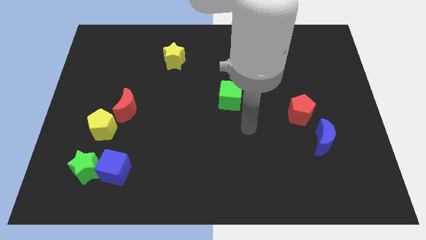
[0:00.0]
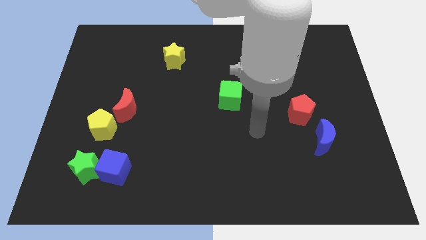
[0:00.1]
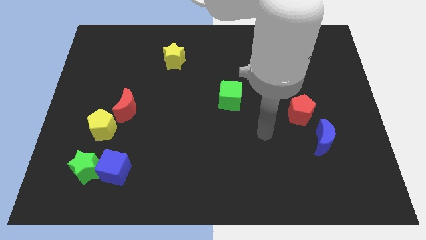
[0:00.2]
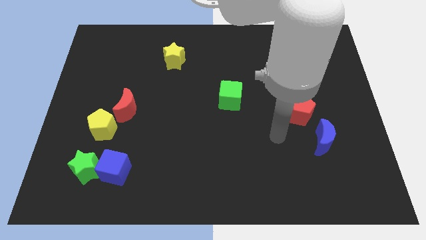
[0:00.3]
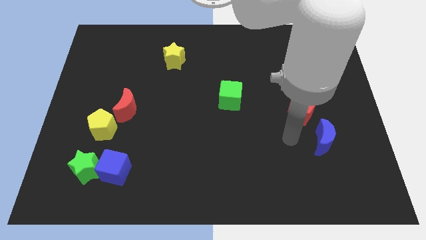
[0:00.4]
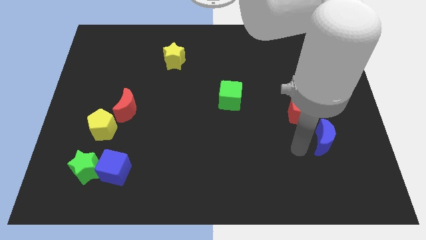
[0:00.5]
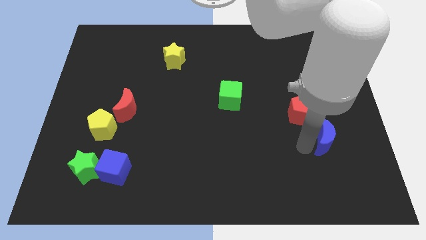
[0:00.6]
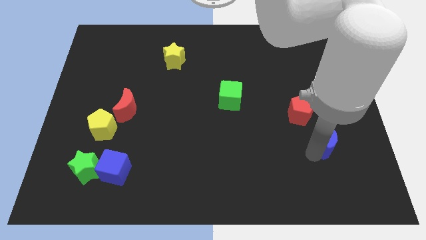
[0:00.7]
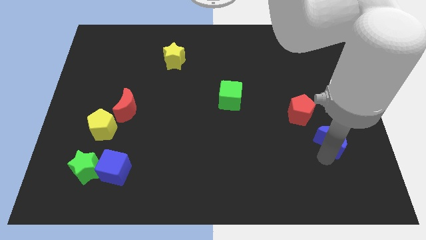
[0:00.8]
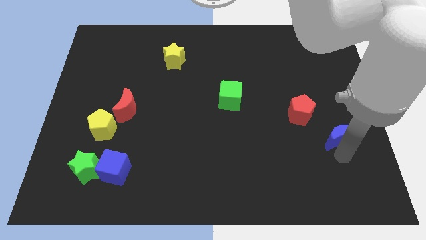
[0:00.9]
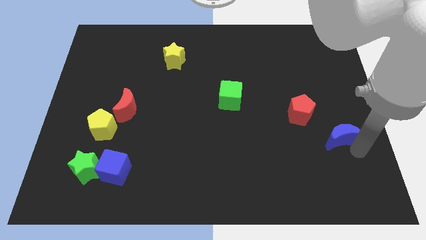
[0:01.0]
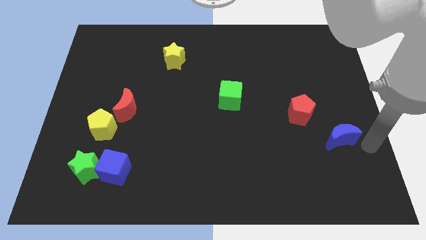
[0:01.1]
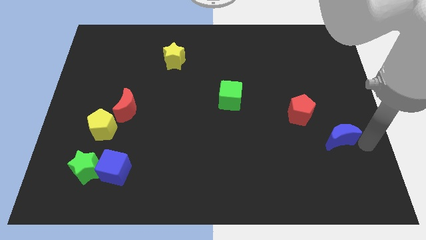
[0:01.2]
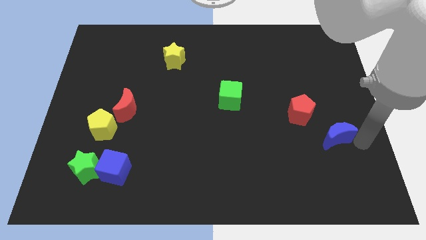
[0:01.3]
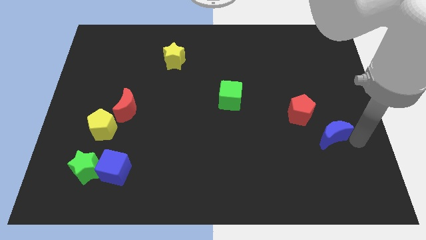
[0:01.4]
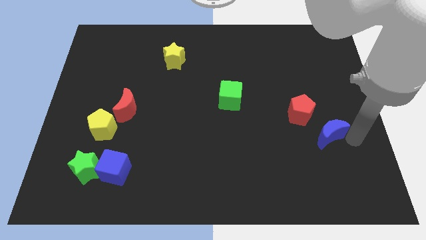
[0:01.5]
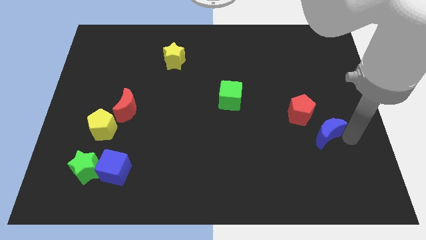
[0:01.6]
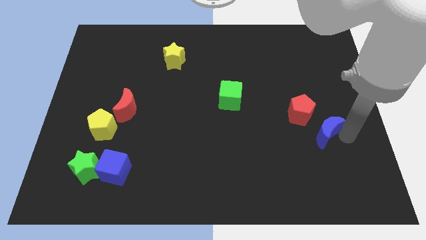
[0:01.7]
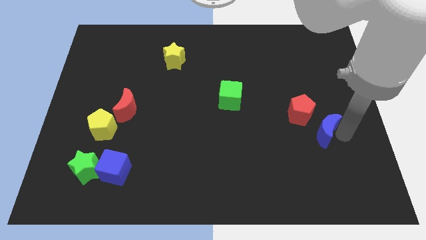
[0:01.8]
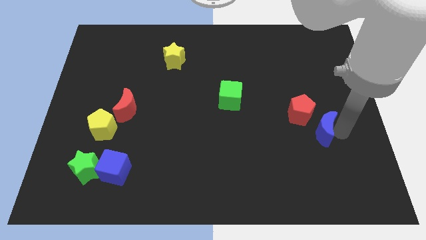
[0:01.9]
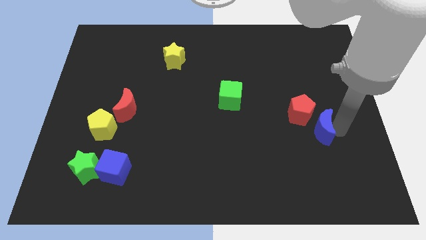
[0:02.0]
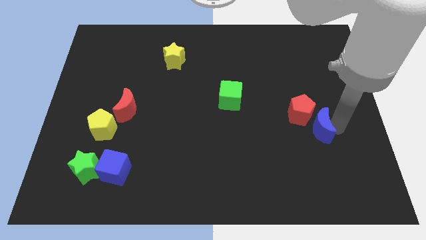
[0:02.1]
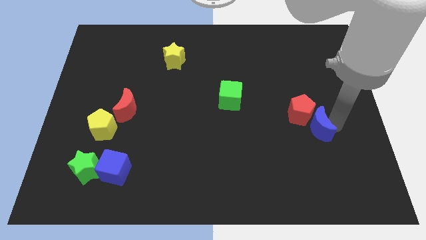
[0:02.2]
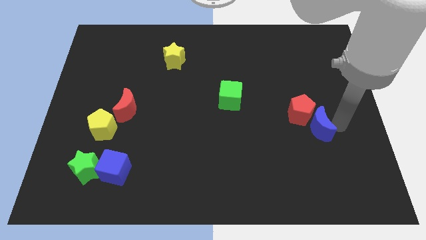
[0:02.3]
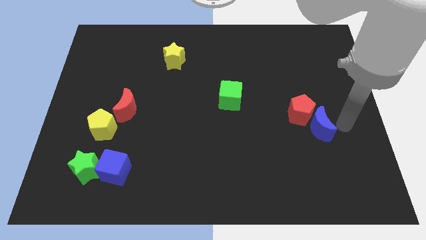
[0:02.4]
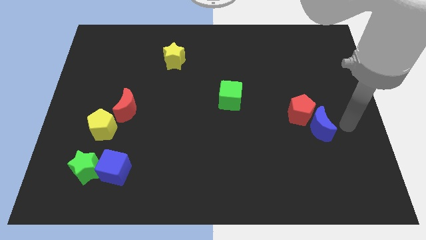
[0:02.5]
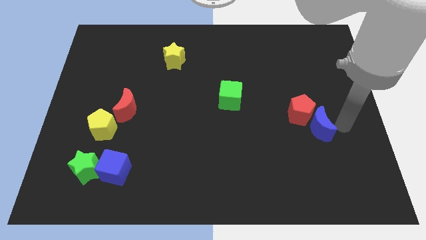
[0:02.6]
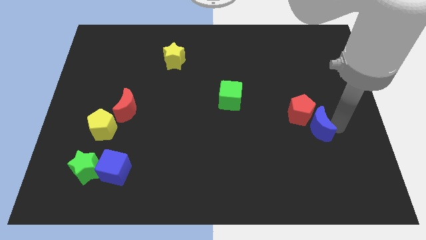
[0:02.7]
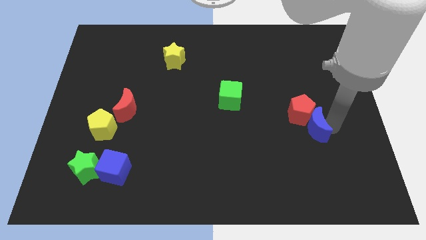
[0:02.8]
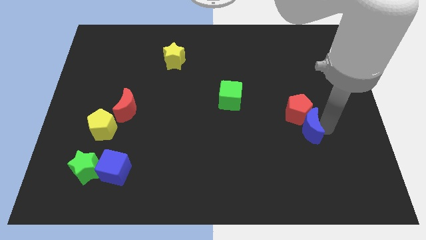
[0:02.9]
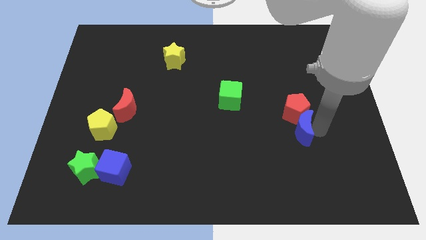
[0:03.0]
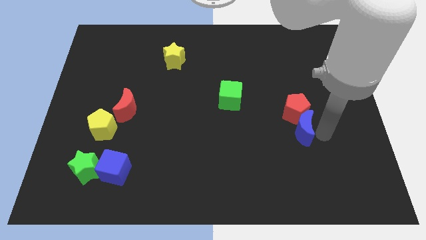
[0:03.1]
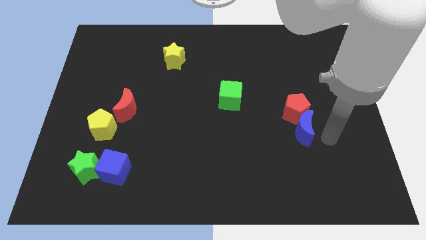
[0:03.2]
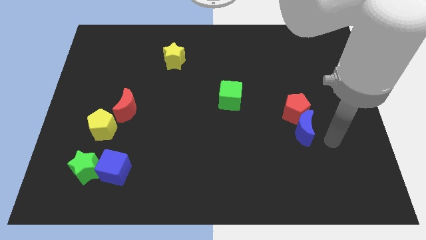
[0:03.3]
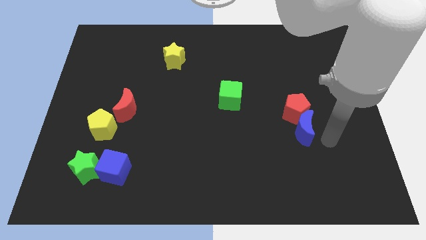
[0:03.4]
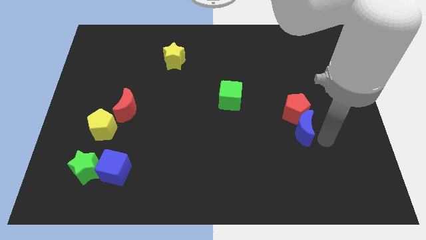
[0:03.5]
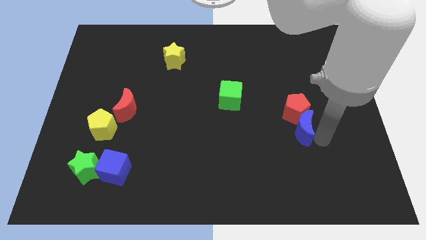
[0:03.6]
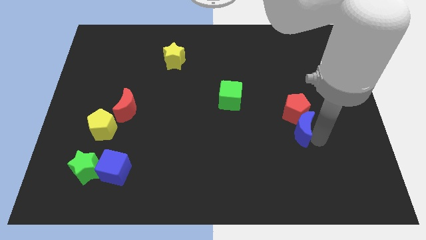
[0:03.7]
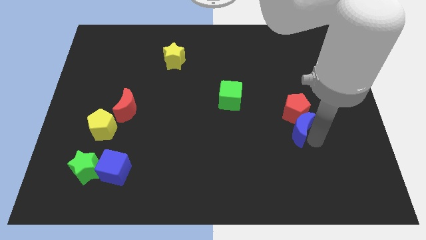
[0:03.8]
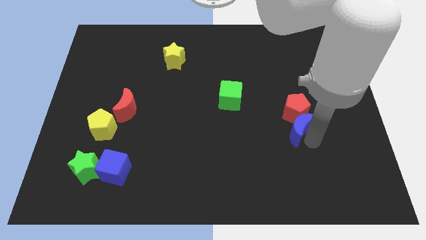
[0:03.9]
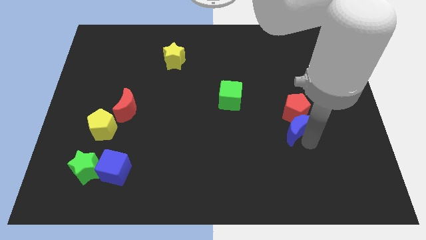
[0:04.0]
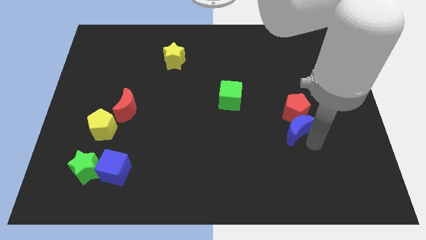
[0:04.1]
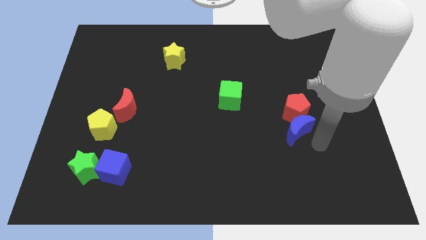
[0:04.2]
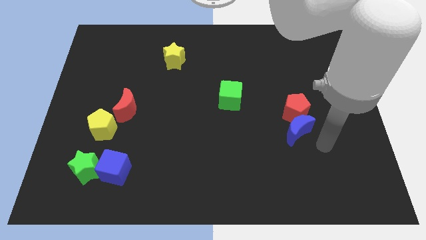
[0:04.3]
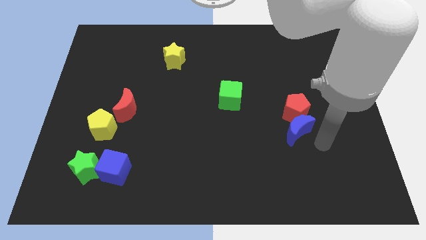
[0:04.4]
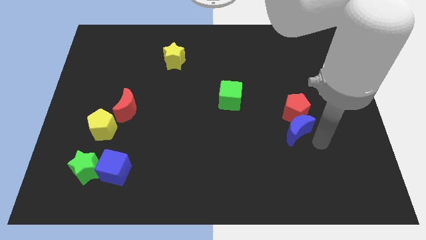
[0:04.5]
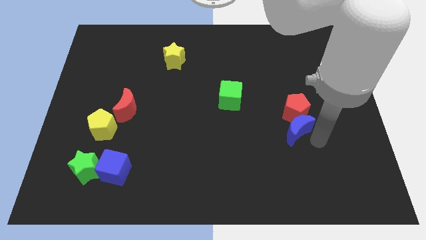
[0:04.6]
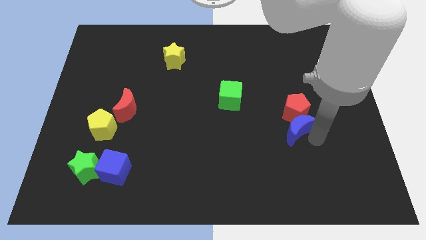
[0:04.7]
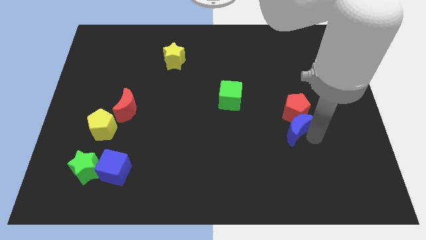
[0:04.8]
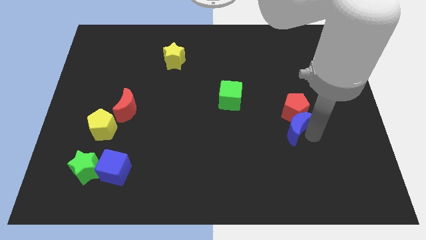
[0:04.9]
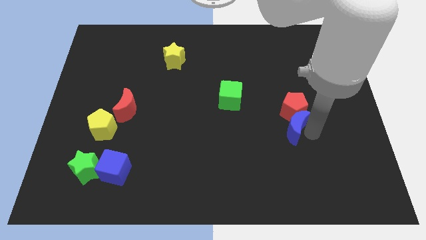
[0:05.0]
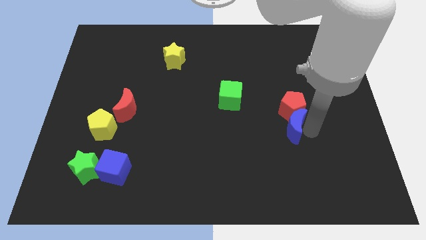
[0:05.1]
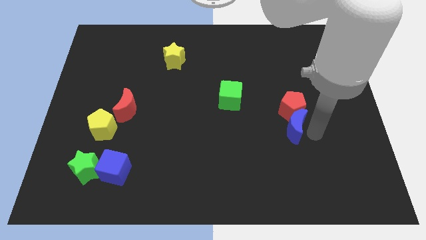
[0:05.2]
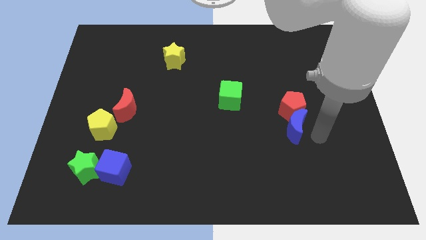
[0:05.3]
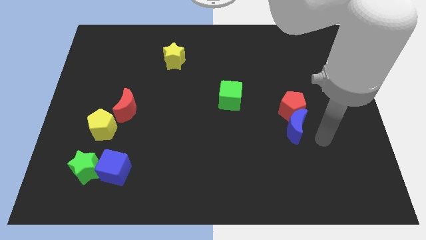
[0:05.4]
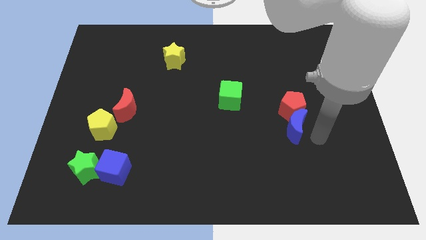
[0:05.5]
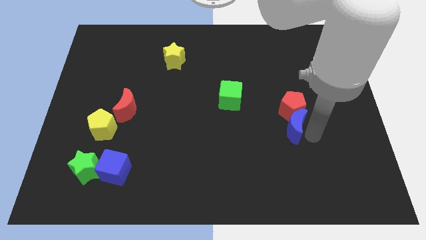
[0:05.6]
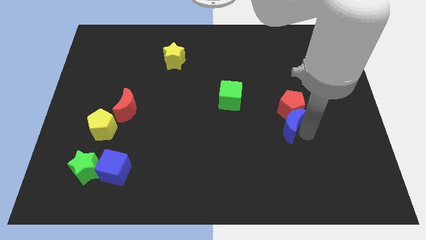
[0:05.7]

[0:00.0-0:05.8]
move the blue moon a little bit diagonally up and left

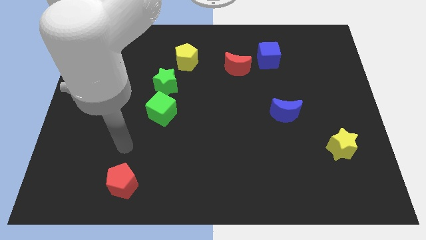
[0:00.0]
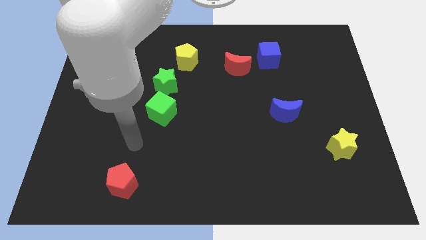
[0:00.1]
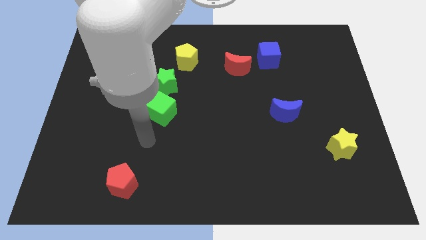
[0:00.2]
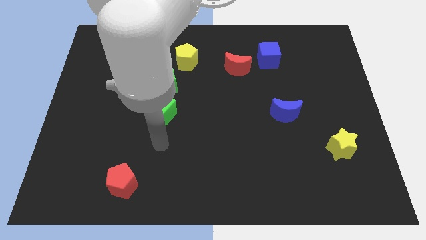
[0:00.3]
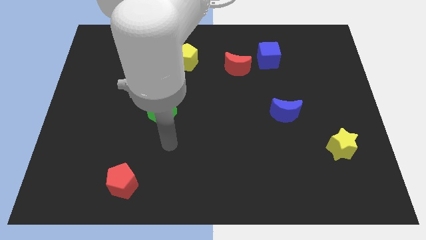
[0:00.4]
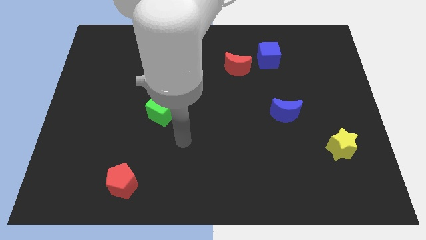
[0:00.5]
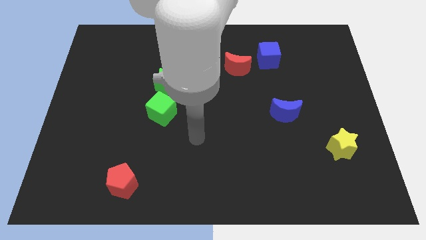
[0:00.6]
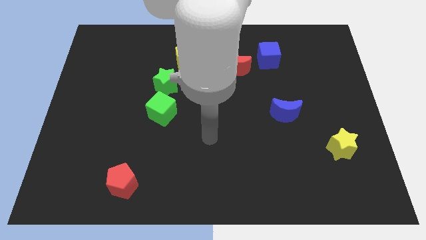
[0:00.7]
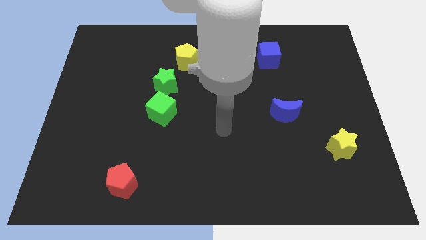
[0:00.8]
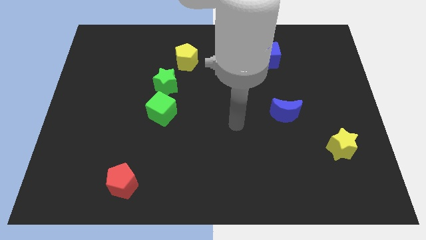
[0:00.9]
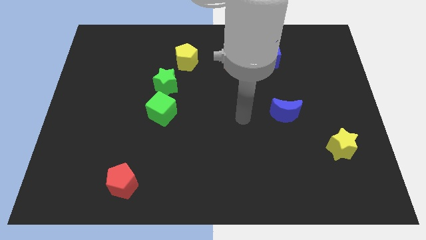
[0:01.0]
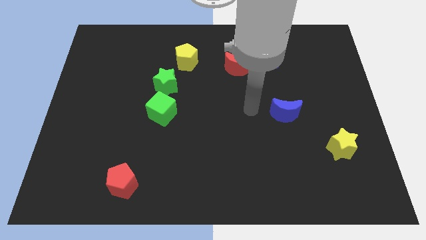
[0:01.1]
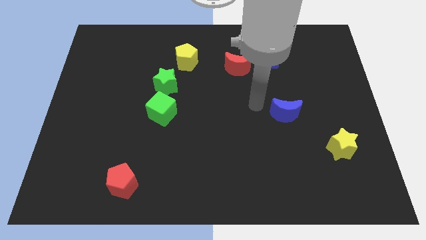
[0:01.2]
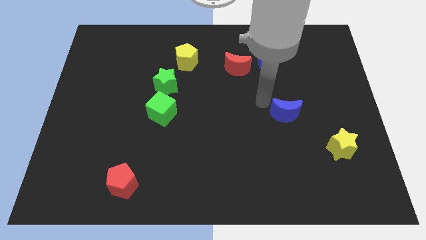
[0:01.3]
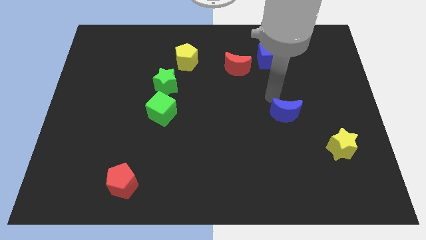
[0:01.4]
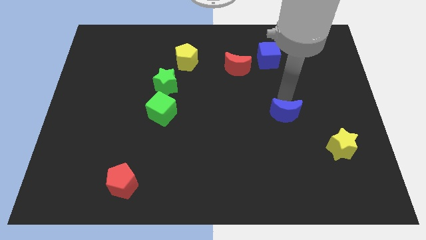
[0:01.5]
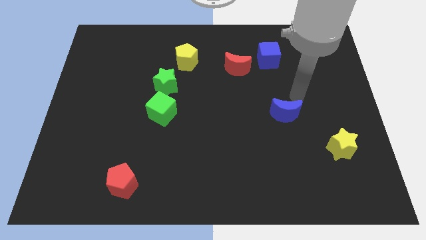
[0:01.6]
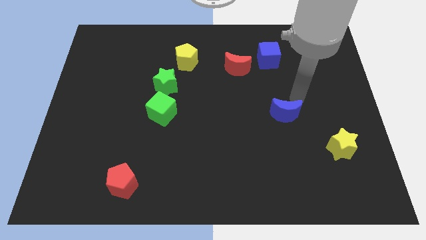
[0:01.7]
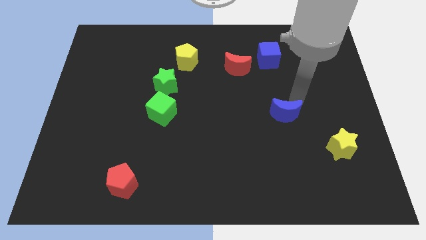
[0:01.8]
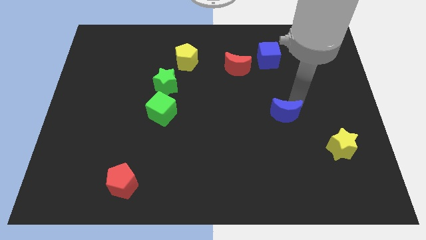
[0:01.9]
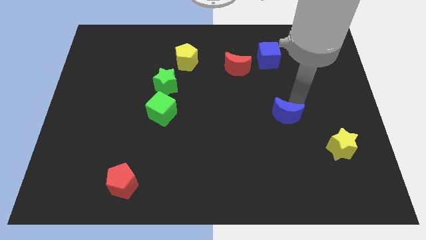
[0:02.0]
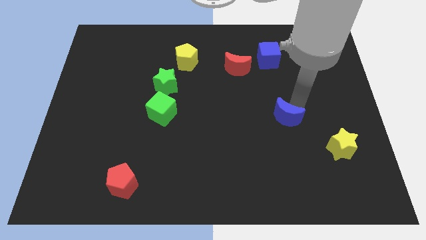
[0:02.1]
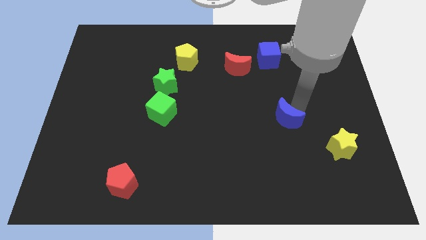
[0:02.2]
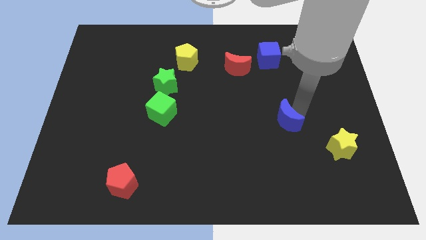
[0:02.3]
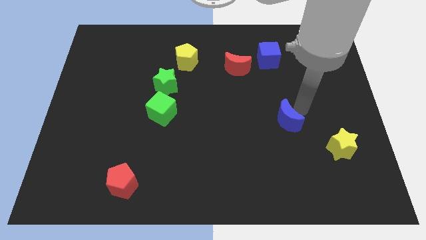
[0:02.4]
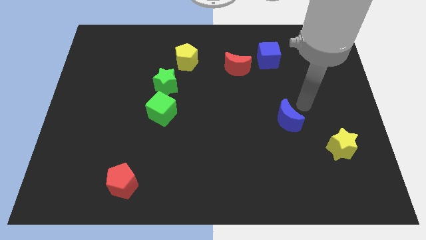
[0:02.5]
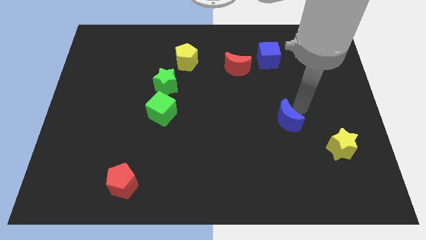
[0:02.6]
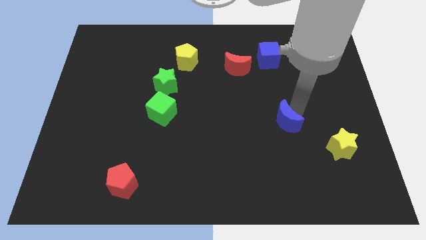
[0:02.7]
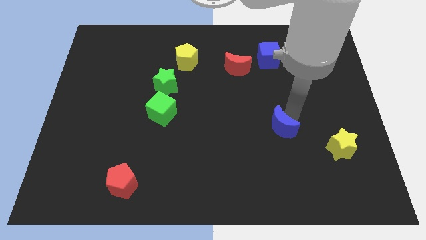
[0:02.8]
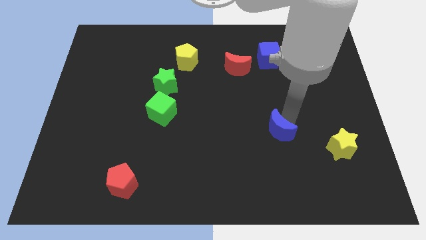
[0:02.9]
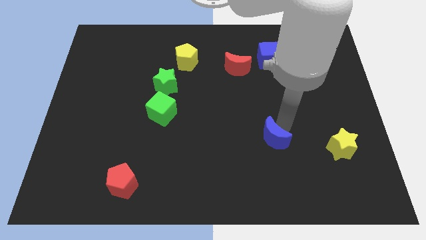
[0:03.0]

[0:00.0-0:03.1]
move the blue moon somewhat down and then to the left
